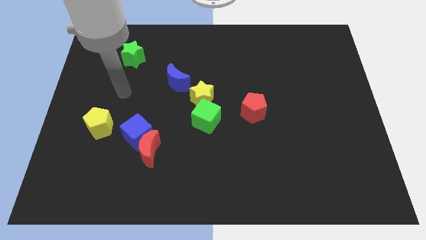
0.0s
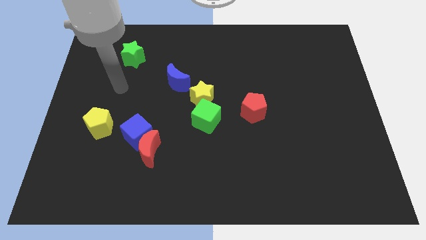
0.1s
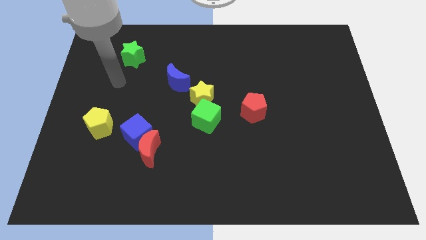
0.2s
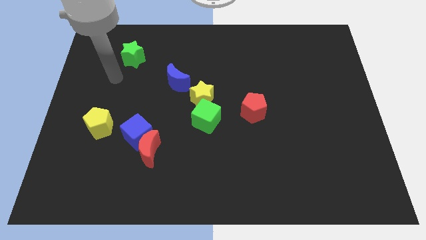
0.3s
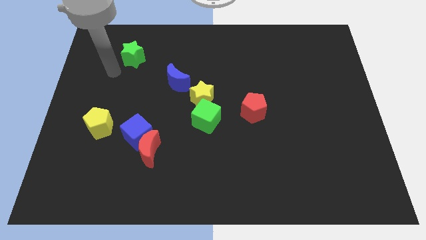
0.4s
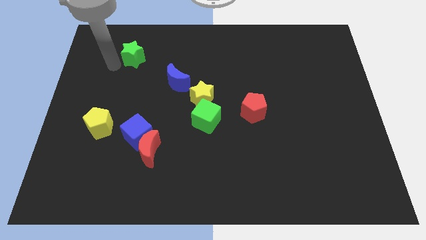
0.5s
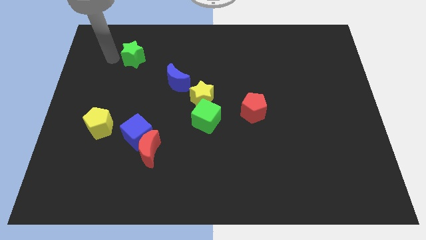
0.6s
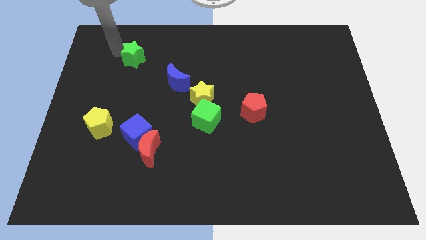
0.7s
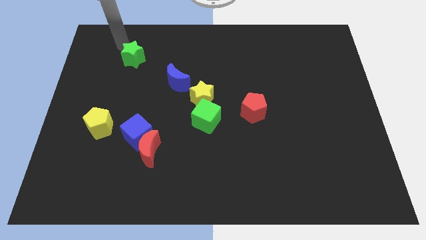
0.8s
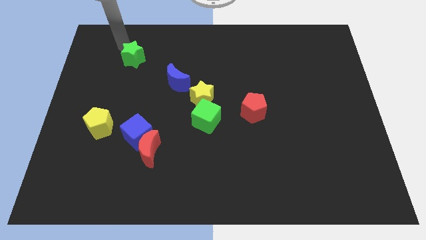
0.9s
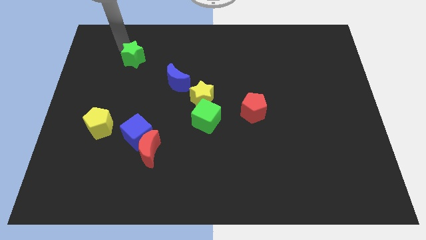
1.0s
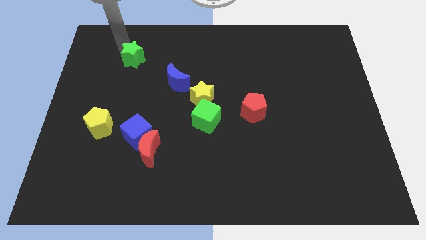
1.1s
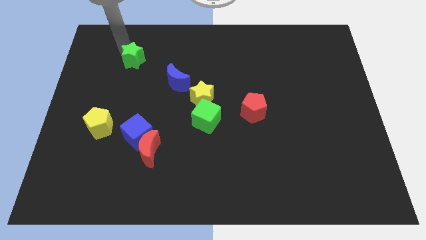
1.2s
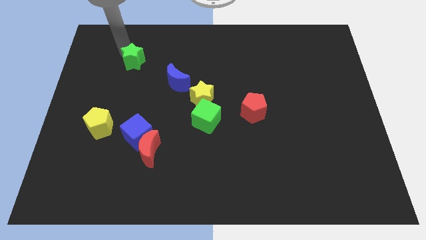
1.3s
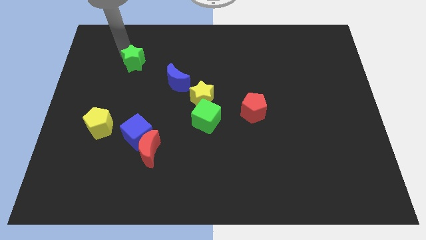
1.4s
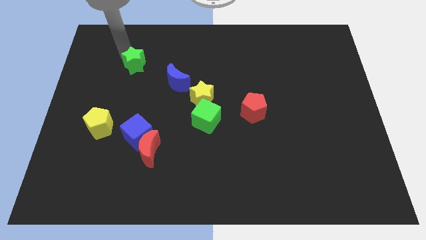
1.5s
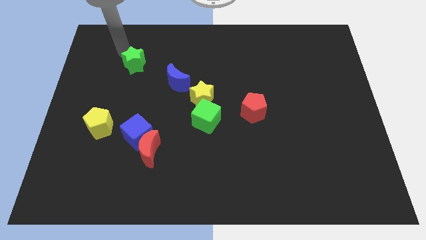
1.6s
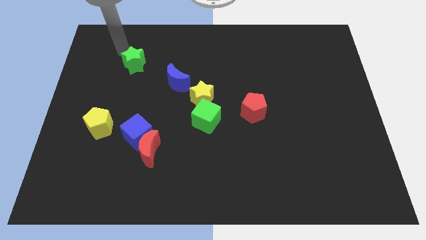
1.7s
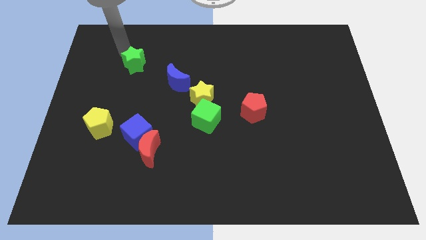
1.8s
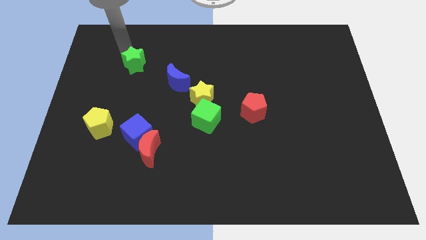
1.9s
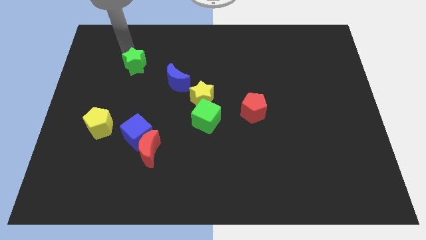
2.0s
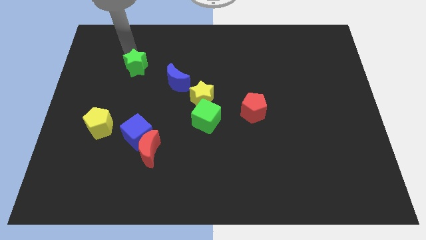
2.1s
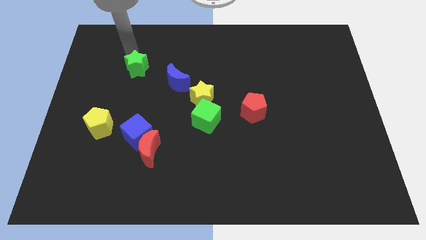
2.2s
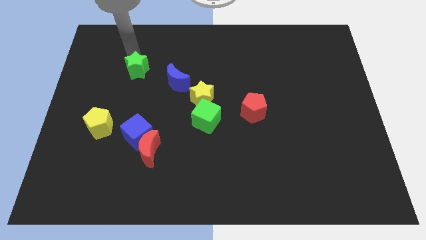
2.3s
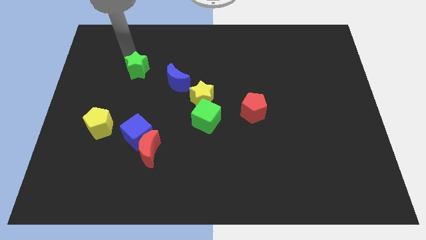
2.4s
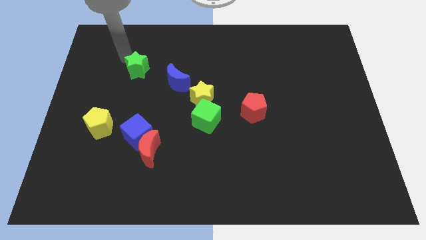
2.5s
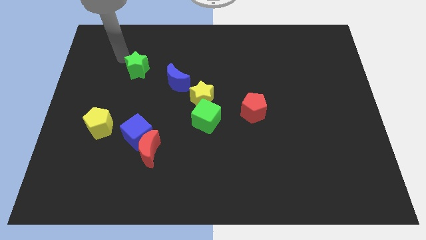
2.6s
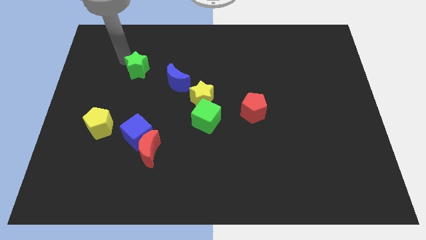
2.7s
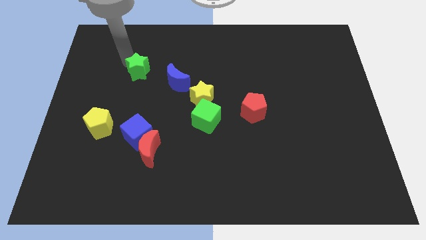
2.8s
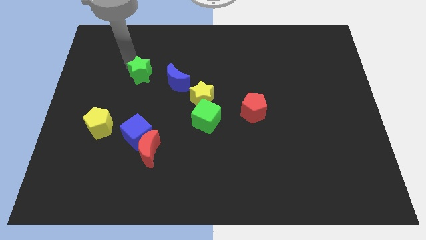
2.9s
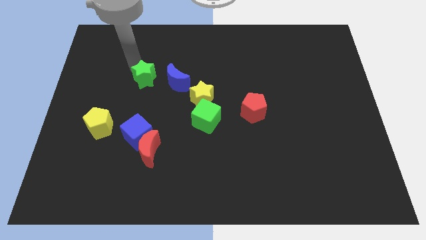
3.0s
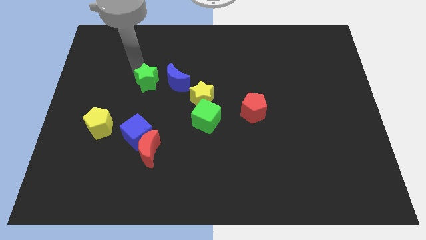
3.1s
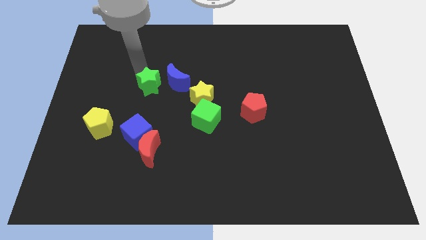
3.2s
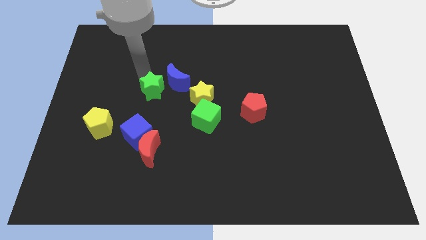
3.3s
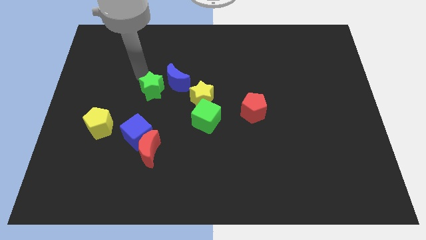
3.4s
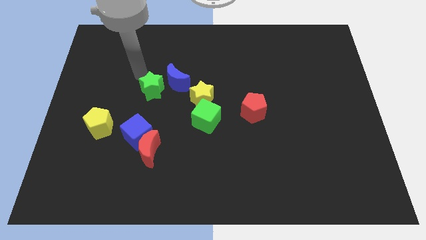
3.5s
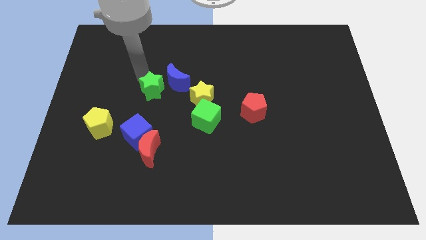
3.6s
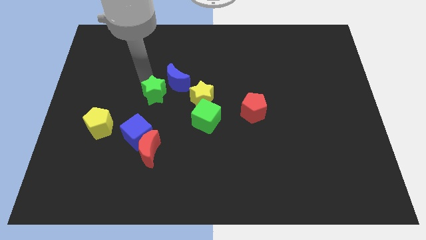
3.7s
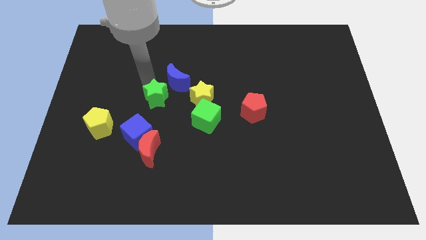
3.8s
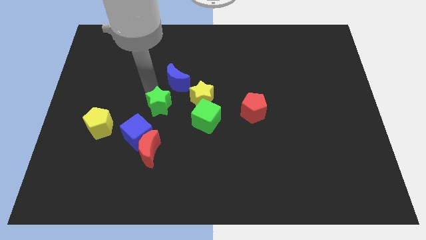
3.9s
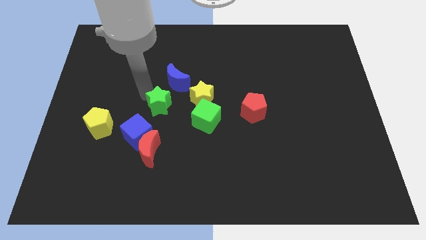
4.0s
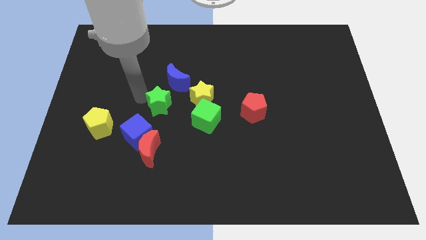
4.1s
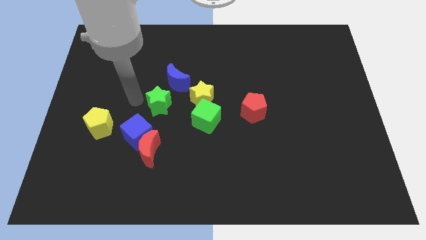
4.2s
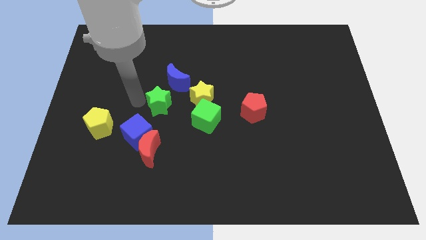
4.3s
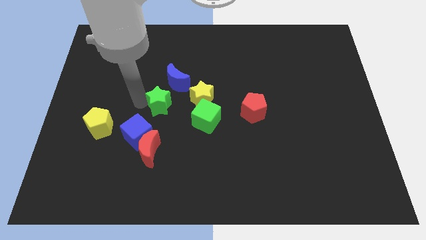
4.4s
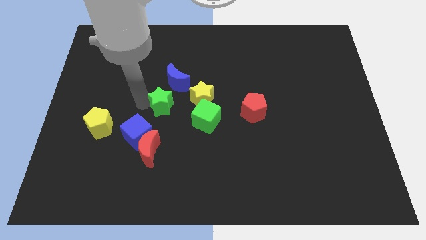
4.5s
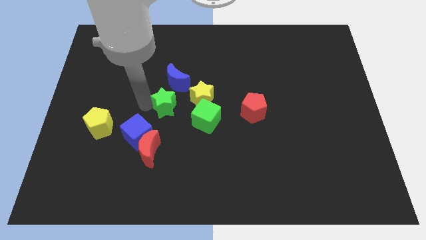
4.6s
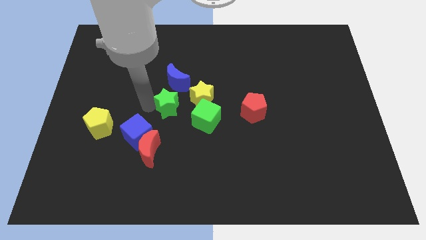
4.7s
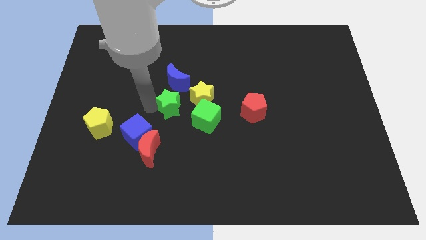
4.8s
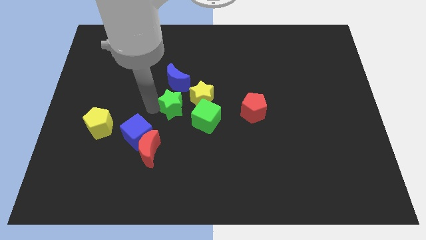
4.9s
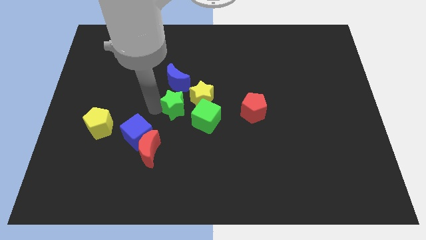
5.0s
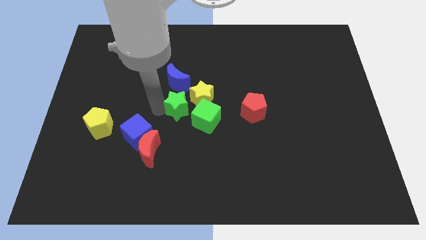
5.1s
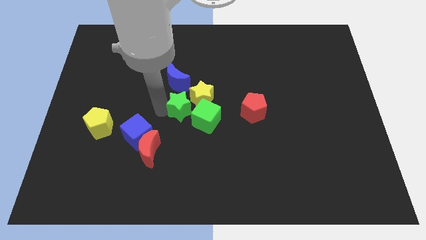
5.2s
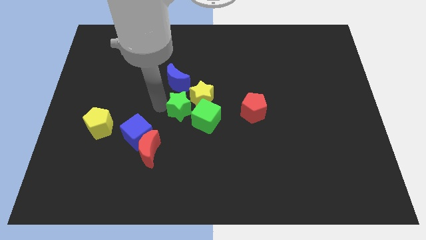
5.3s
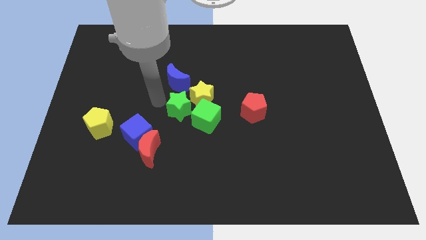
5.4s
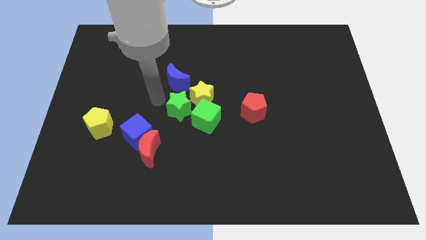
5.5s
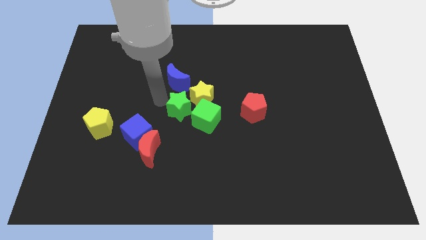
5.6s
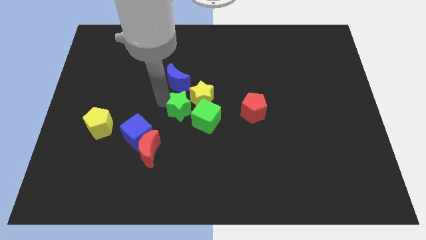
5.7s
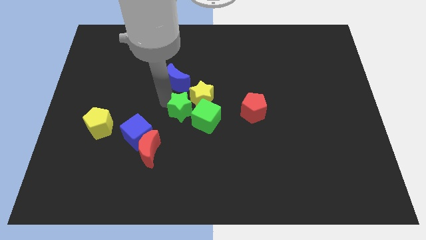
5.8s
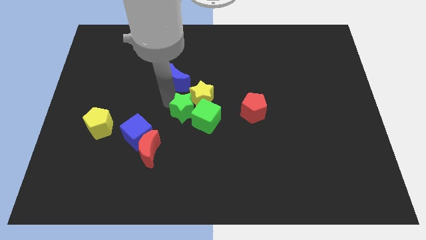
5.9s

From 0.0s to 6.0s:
move the green star to the green cube

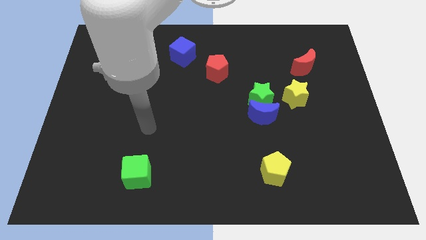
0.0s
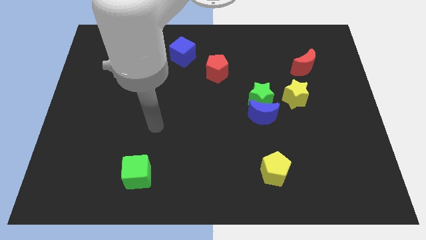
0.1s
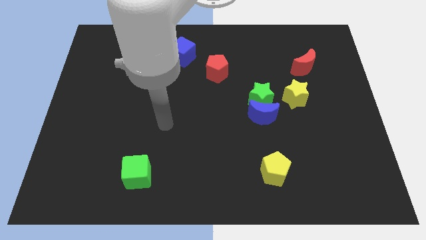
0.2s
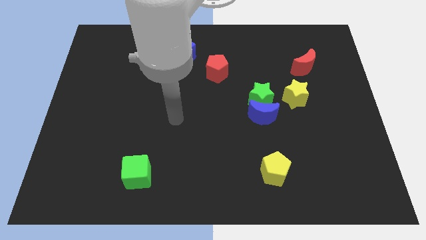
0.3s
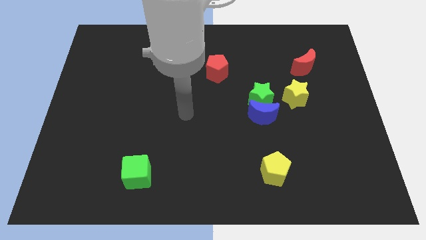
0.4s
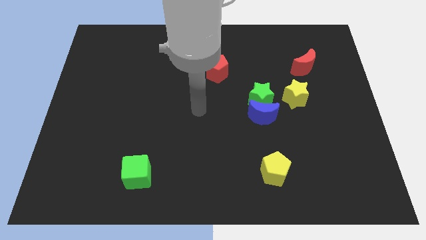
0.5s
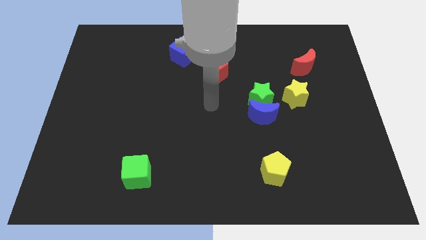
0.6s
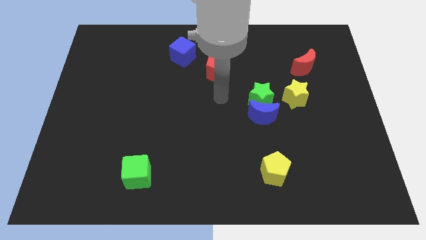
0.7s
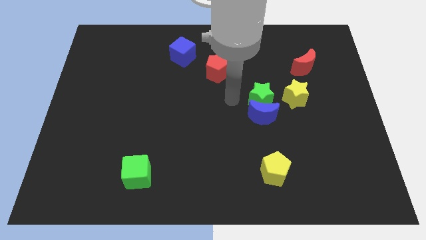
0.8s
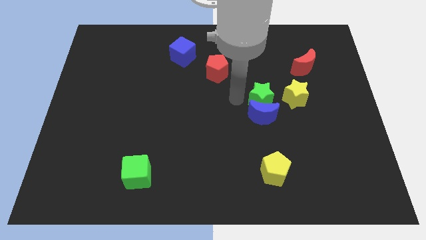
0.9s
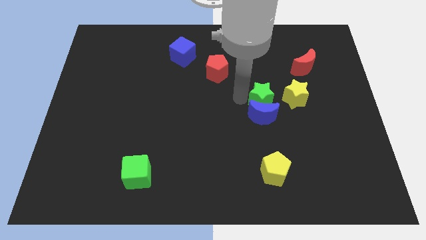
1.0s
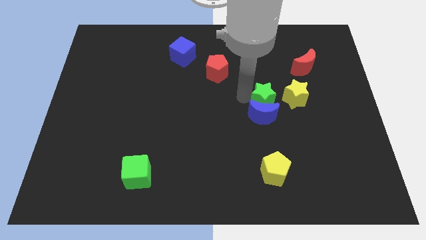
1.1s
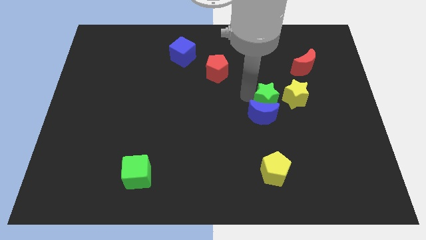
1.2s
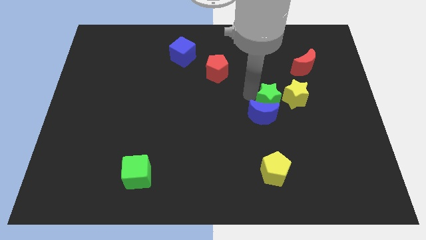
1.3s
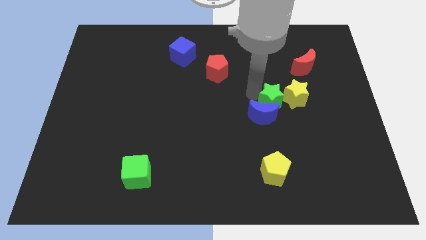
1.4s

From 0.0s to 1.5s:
put the green star close to the yellow star

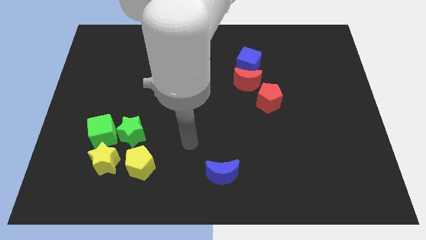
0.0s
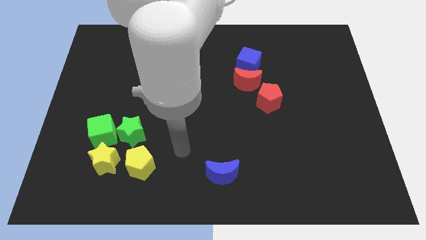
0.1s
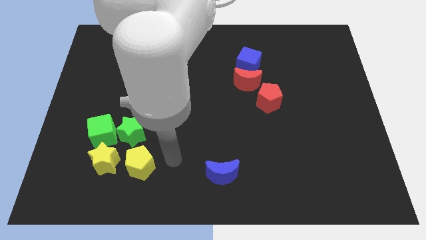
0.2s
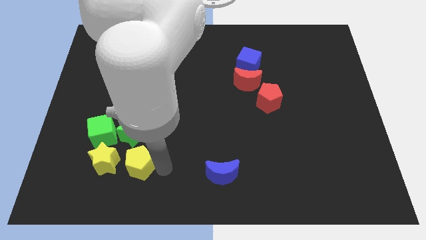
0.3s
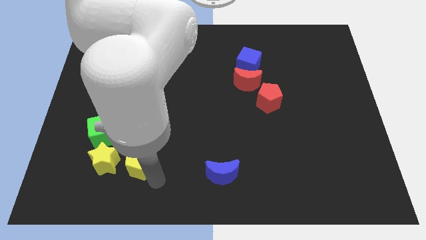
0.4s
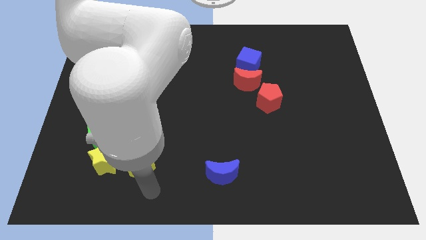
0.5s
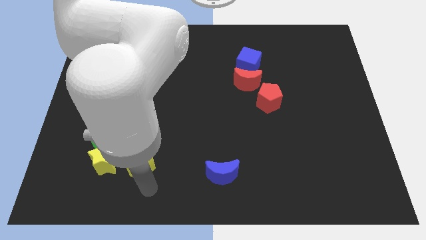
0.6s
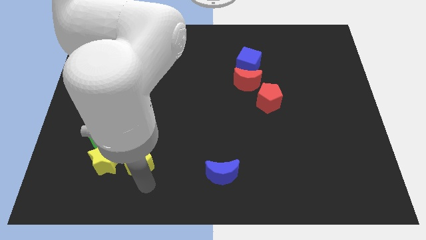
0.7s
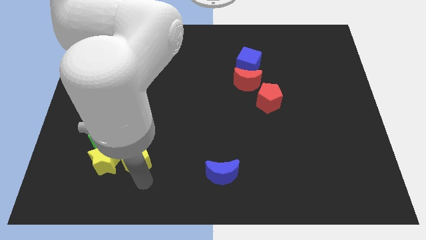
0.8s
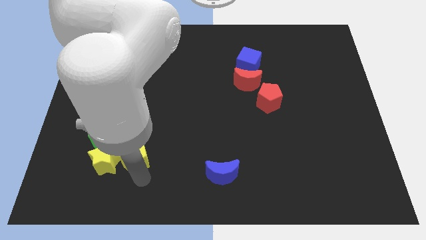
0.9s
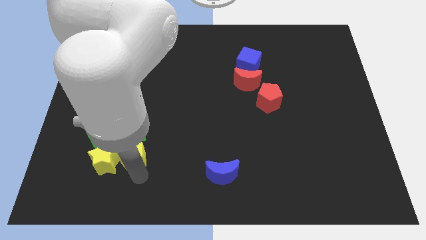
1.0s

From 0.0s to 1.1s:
move the yellow pentagon towards the green star
